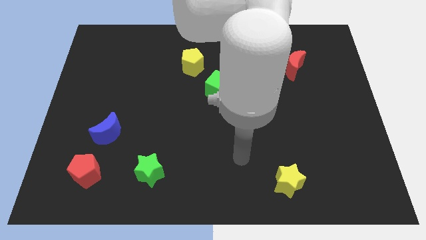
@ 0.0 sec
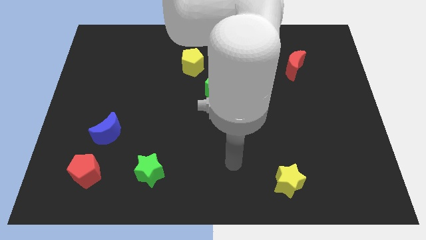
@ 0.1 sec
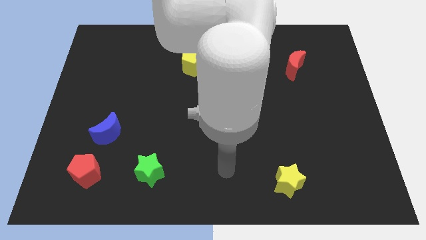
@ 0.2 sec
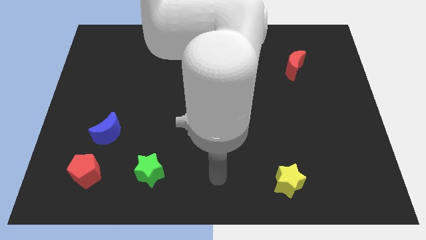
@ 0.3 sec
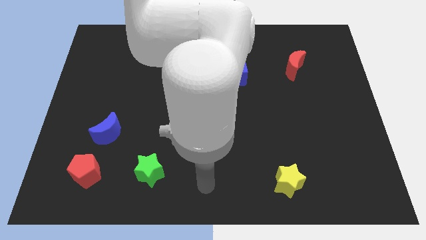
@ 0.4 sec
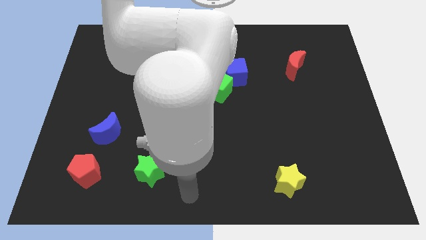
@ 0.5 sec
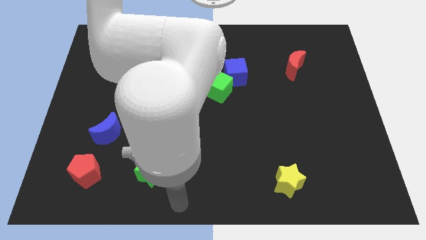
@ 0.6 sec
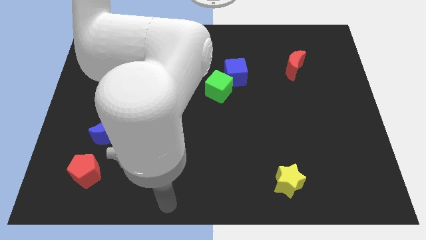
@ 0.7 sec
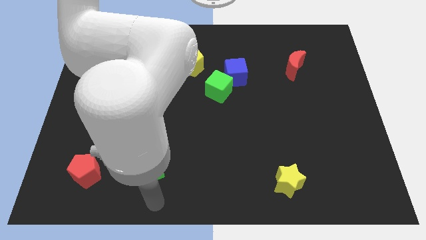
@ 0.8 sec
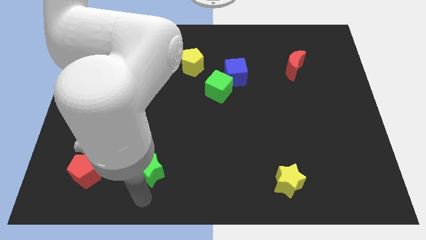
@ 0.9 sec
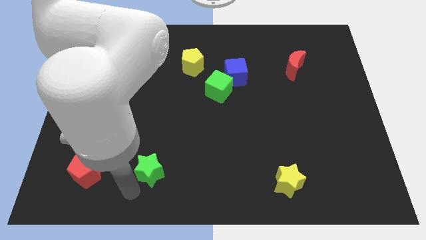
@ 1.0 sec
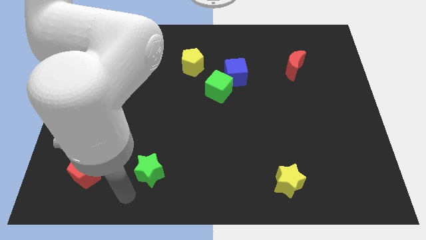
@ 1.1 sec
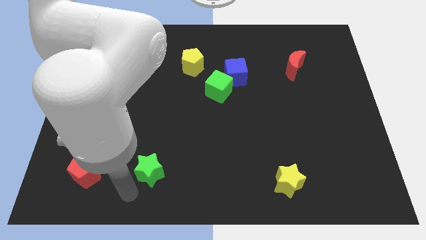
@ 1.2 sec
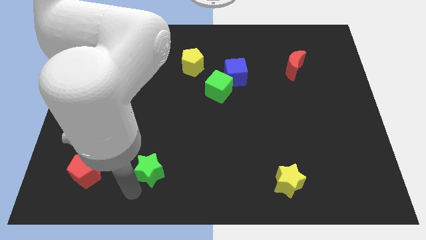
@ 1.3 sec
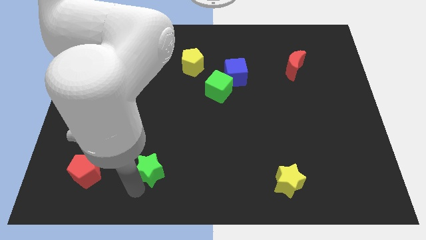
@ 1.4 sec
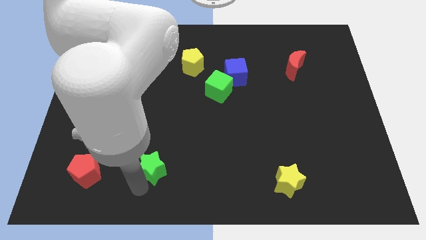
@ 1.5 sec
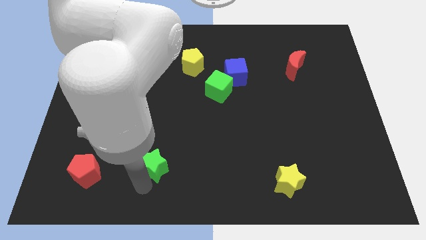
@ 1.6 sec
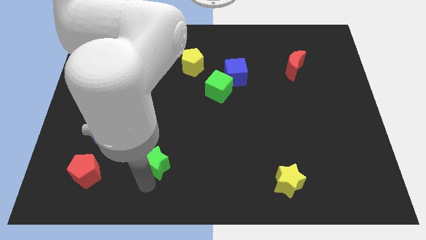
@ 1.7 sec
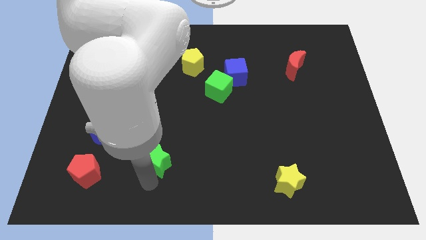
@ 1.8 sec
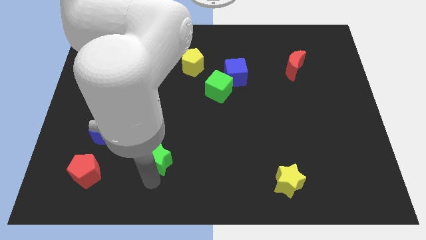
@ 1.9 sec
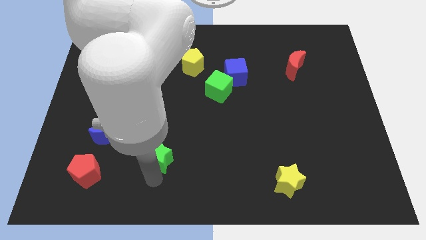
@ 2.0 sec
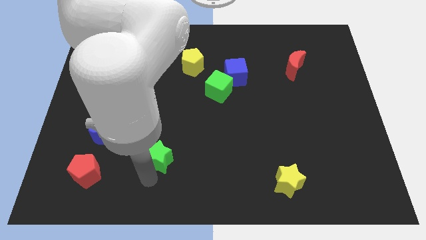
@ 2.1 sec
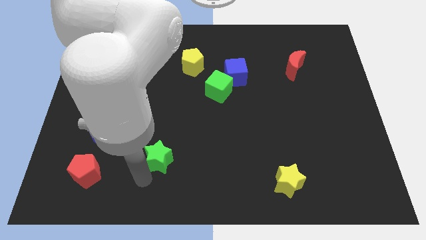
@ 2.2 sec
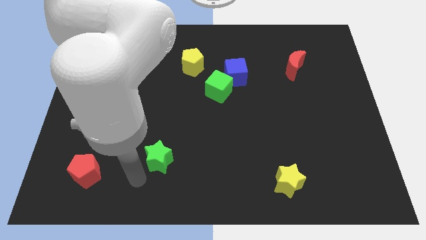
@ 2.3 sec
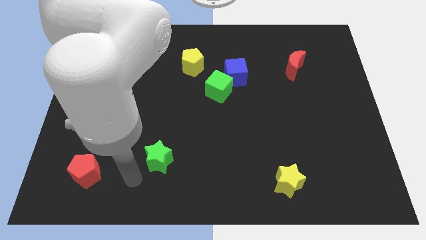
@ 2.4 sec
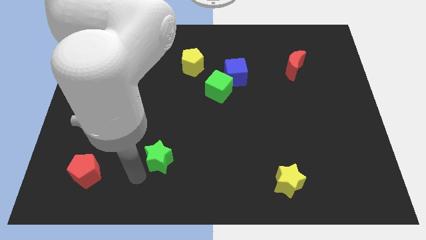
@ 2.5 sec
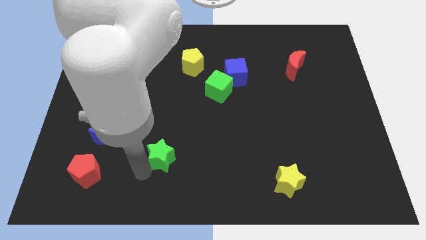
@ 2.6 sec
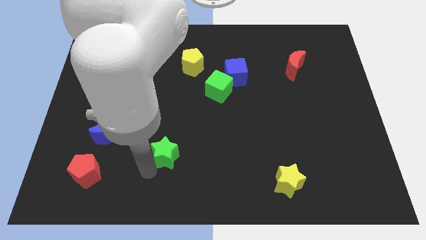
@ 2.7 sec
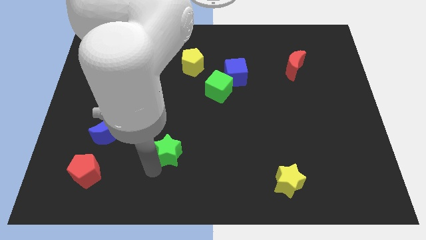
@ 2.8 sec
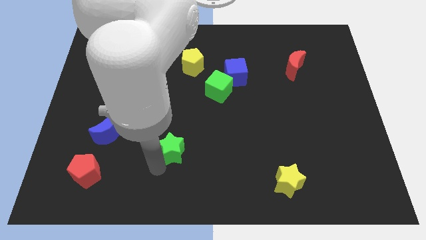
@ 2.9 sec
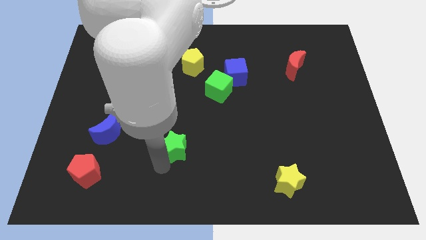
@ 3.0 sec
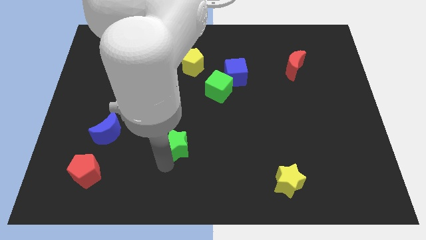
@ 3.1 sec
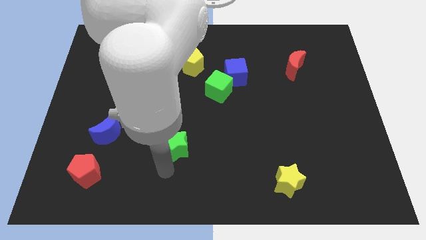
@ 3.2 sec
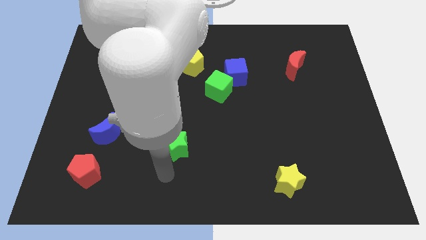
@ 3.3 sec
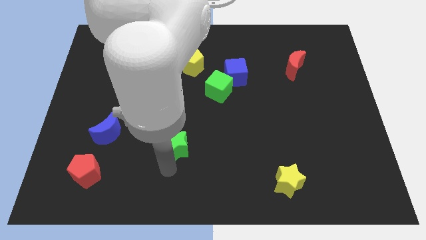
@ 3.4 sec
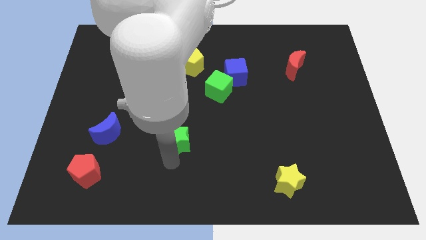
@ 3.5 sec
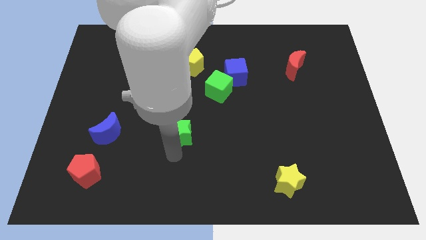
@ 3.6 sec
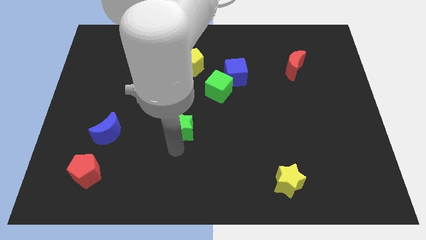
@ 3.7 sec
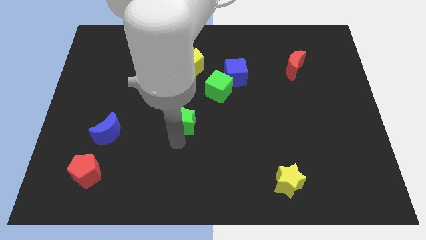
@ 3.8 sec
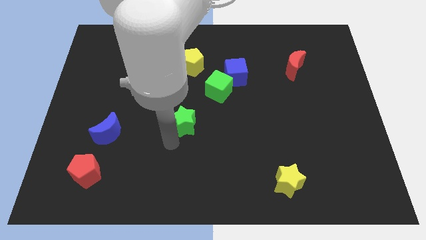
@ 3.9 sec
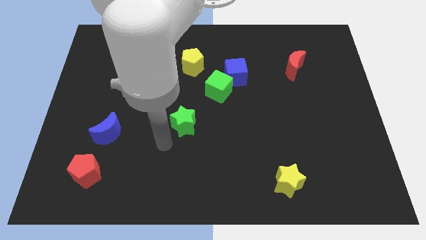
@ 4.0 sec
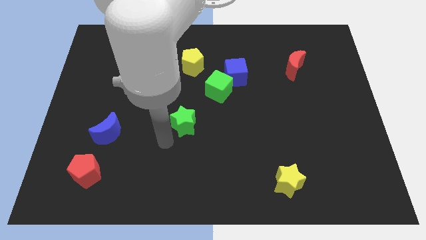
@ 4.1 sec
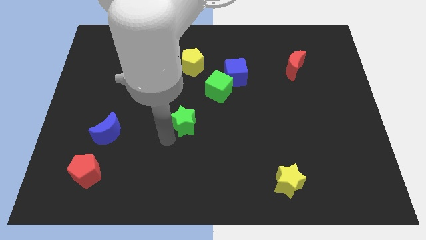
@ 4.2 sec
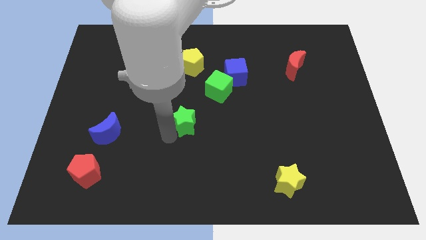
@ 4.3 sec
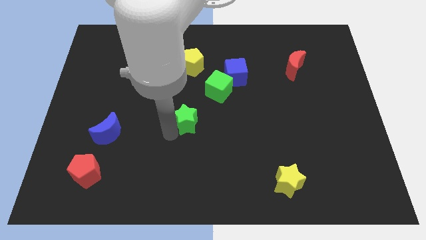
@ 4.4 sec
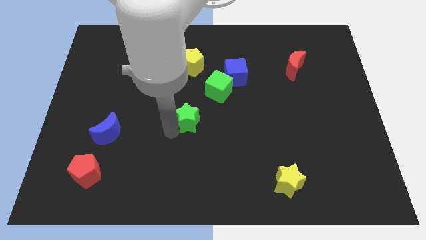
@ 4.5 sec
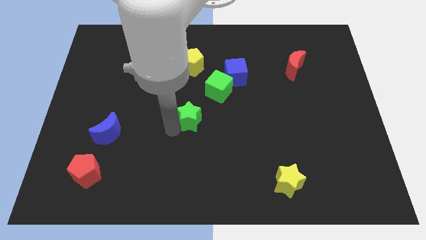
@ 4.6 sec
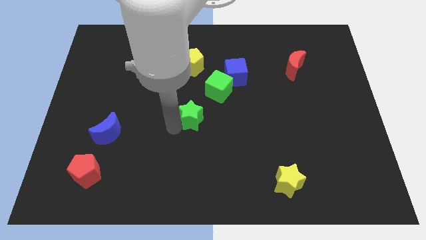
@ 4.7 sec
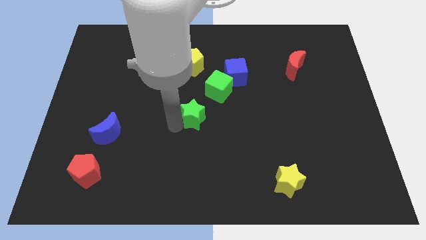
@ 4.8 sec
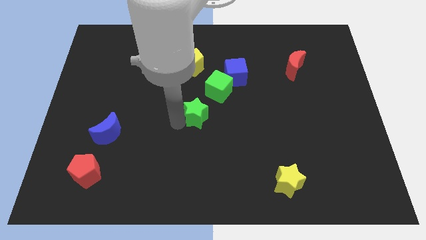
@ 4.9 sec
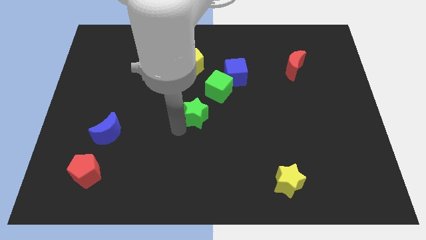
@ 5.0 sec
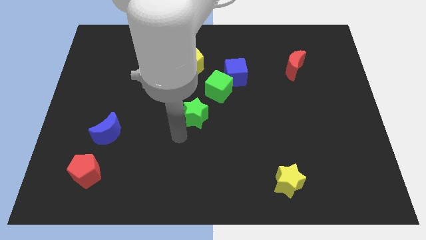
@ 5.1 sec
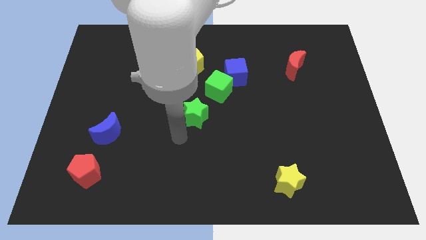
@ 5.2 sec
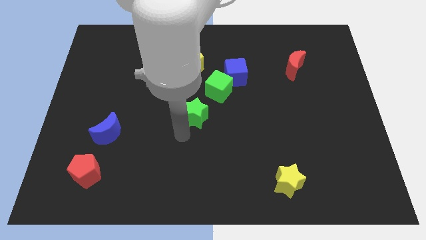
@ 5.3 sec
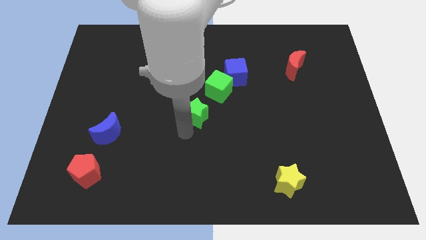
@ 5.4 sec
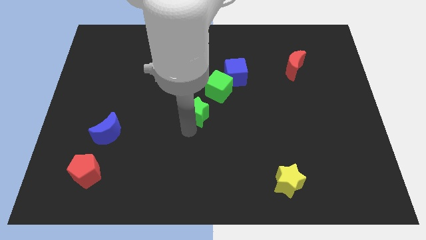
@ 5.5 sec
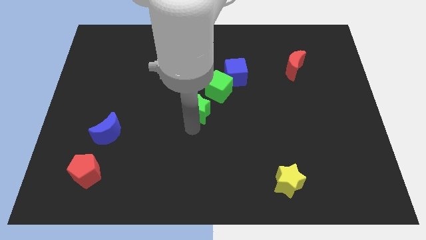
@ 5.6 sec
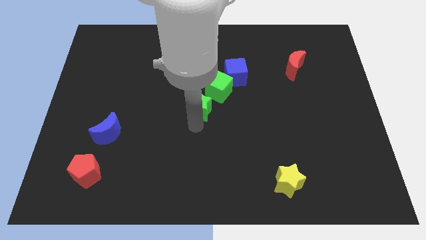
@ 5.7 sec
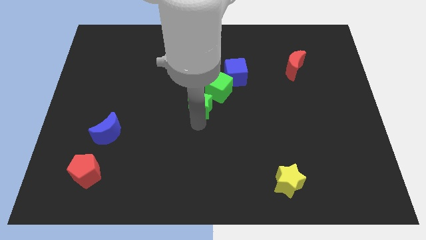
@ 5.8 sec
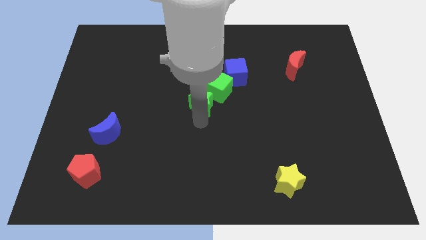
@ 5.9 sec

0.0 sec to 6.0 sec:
move the green star to the bottom left side of the blue cube
